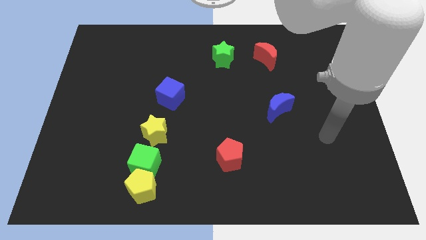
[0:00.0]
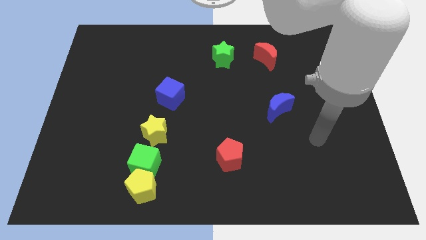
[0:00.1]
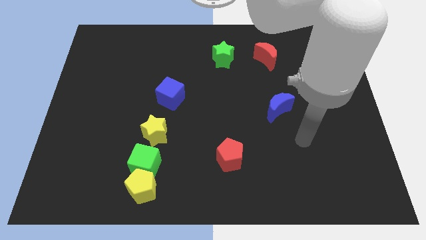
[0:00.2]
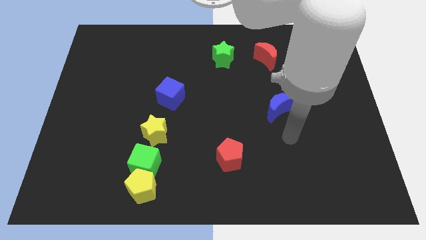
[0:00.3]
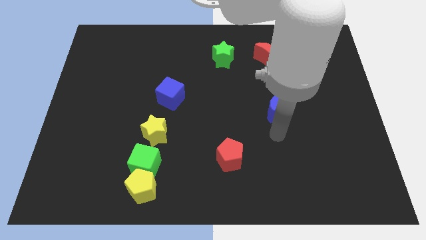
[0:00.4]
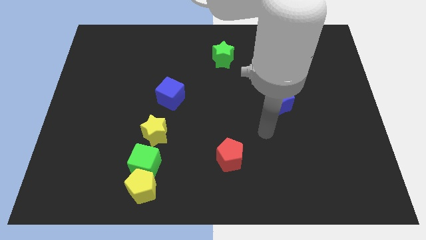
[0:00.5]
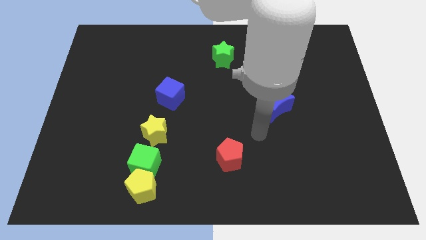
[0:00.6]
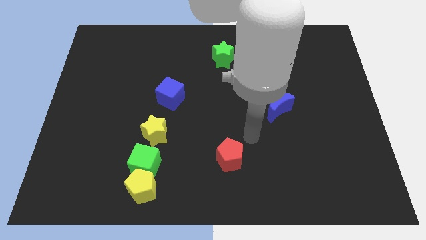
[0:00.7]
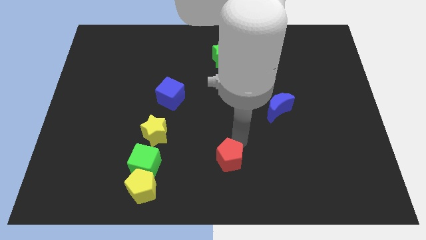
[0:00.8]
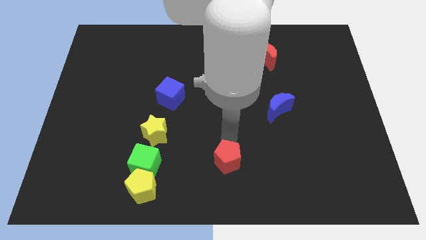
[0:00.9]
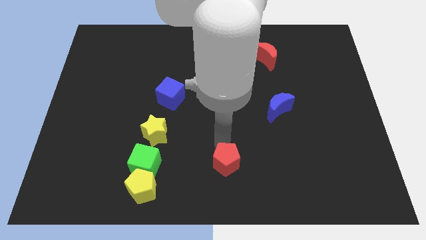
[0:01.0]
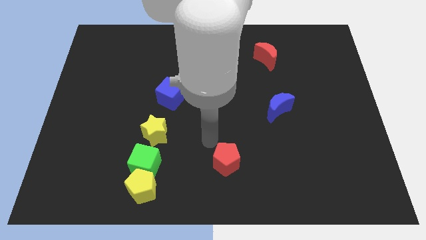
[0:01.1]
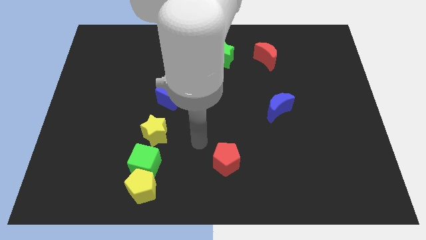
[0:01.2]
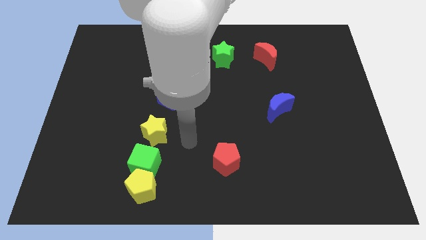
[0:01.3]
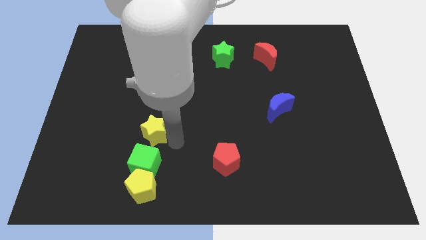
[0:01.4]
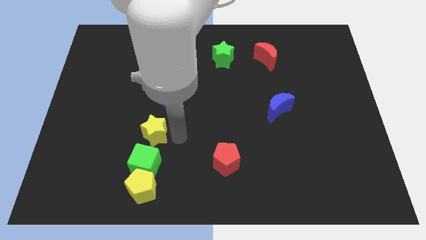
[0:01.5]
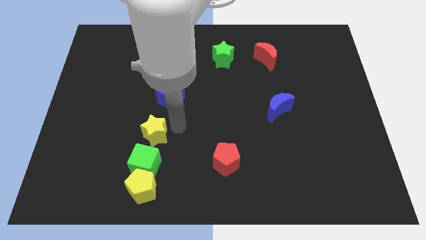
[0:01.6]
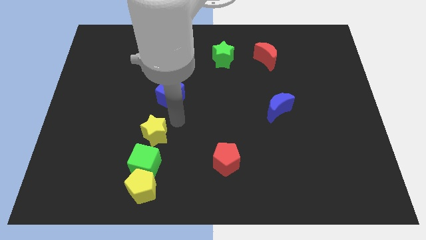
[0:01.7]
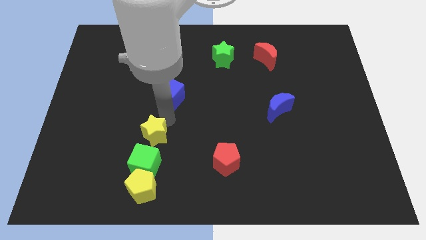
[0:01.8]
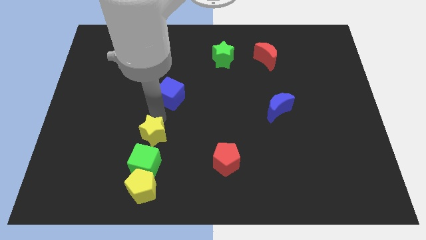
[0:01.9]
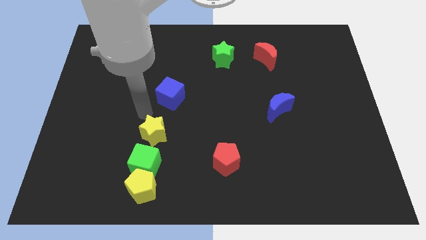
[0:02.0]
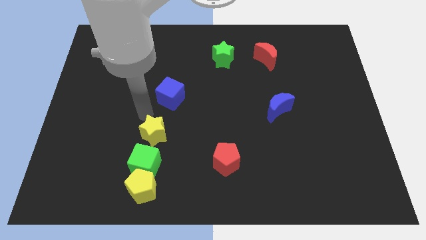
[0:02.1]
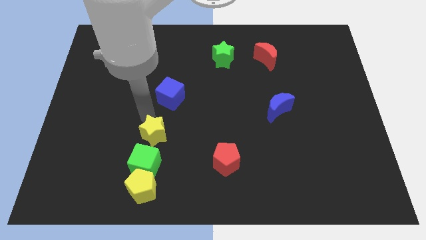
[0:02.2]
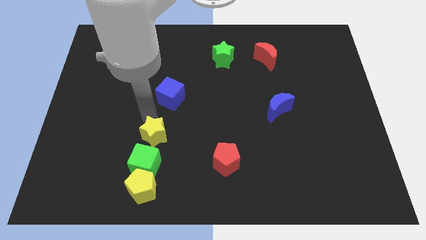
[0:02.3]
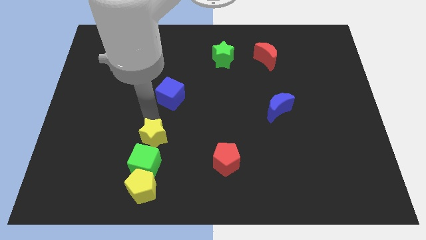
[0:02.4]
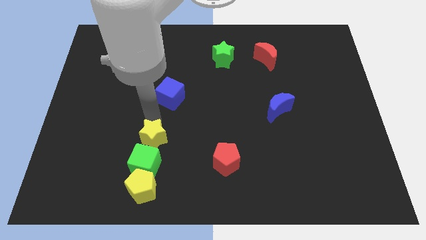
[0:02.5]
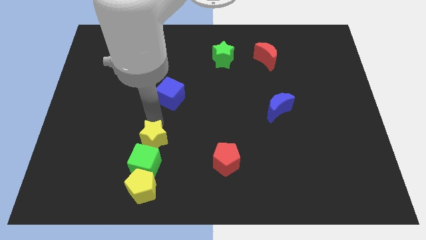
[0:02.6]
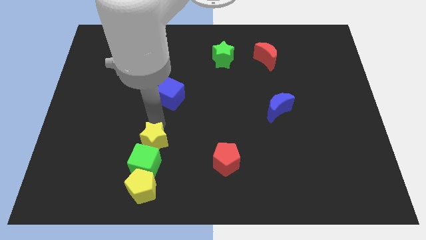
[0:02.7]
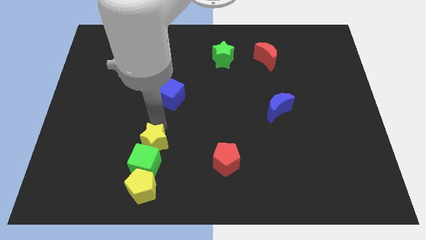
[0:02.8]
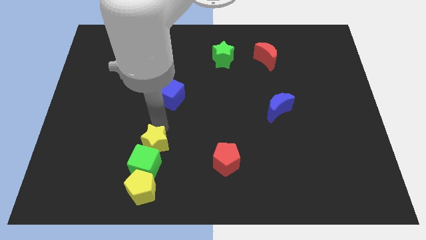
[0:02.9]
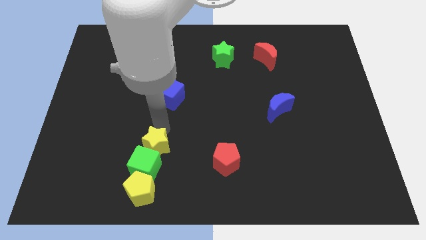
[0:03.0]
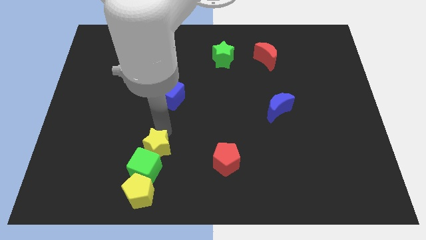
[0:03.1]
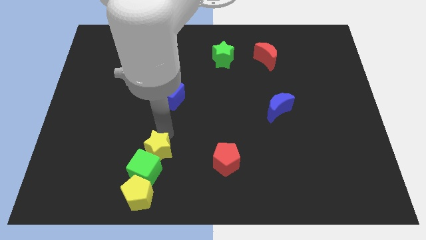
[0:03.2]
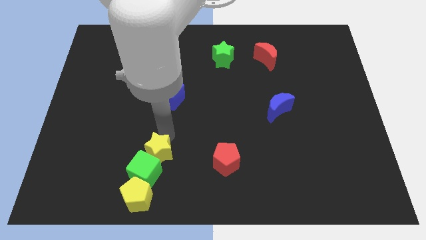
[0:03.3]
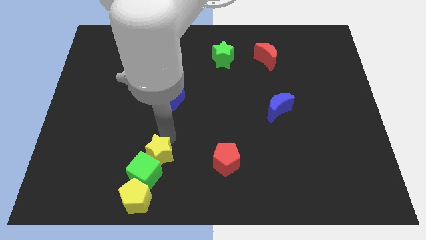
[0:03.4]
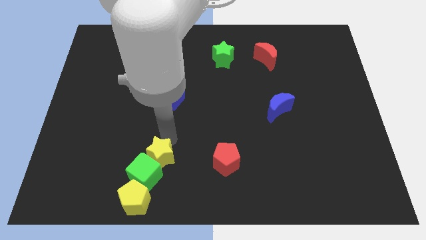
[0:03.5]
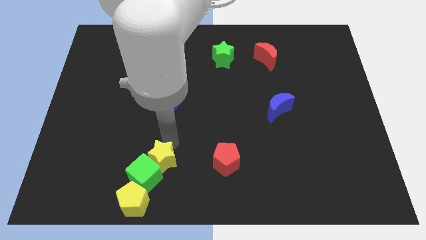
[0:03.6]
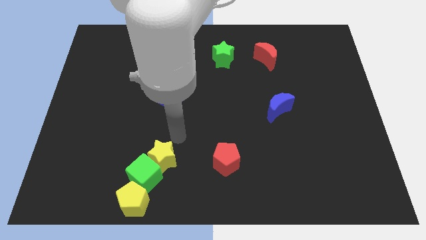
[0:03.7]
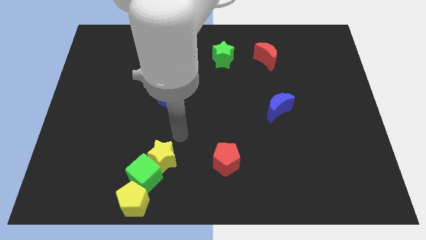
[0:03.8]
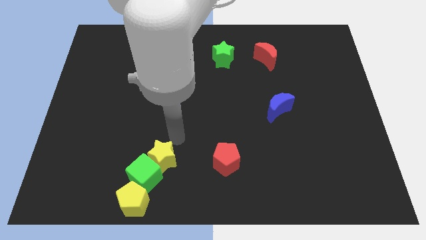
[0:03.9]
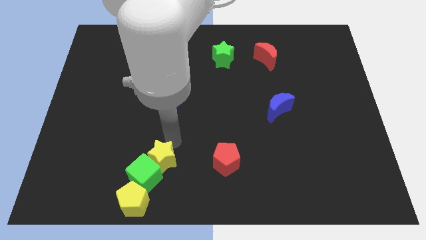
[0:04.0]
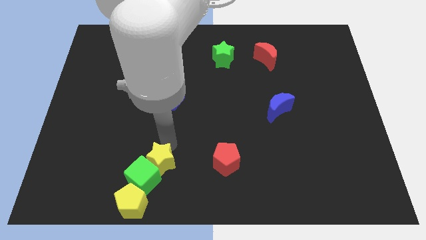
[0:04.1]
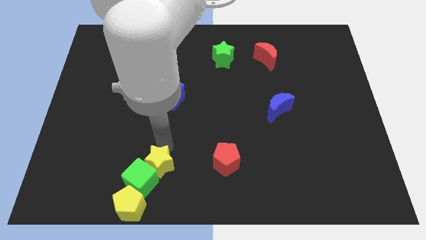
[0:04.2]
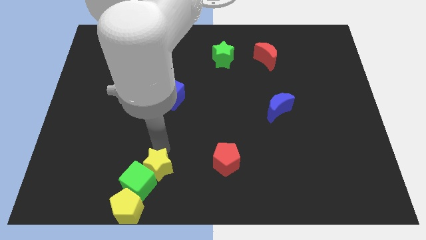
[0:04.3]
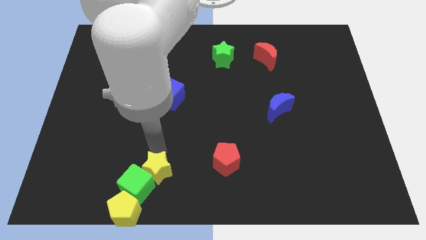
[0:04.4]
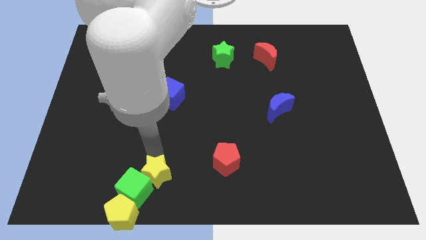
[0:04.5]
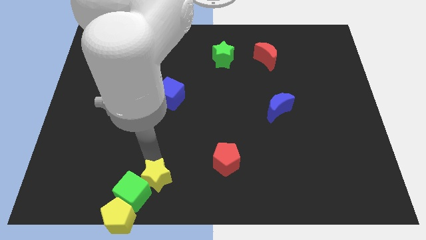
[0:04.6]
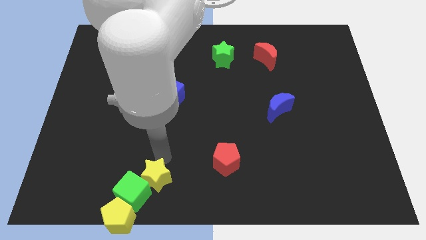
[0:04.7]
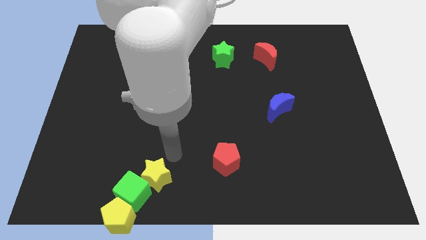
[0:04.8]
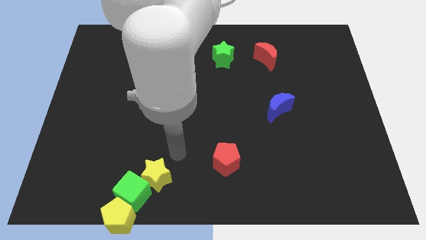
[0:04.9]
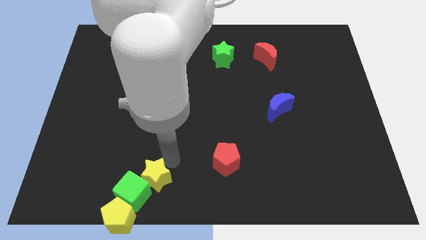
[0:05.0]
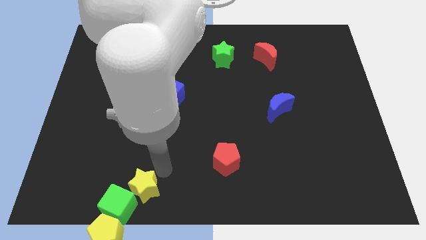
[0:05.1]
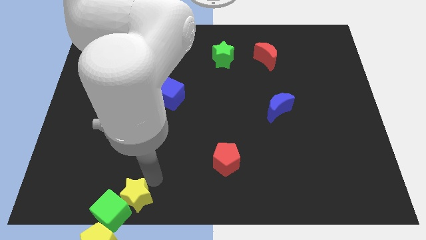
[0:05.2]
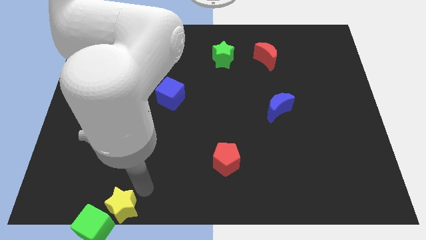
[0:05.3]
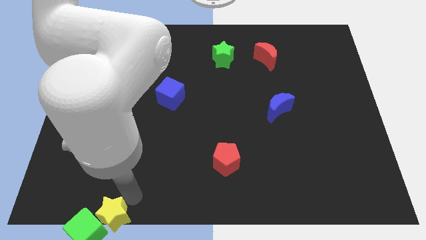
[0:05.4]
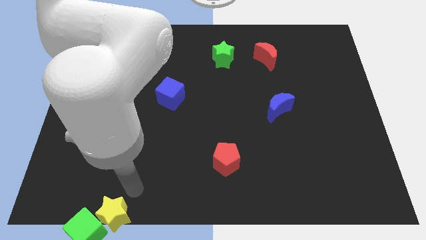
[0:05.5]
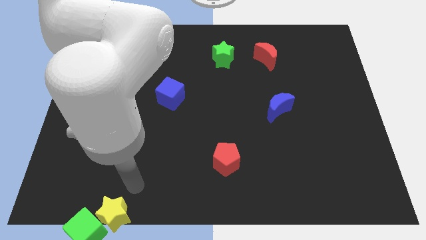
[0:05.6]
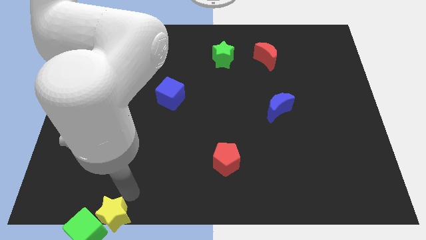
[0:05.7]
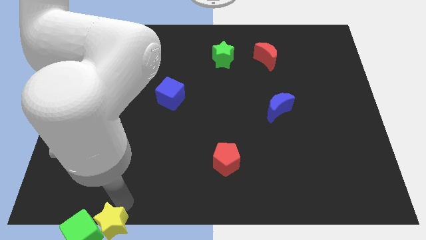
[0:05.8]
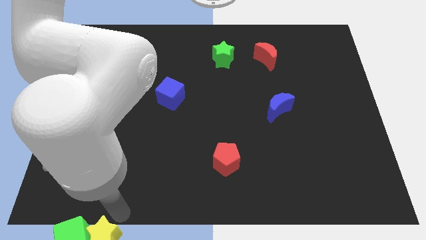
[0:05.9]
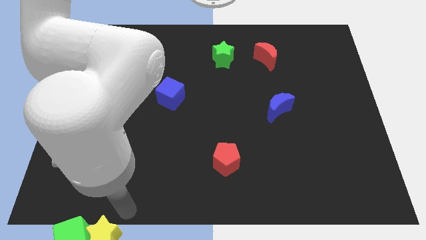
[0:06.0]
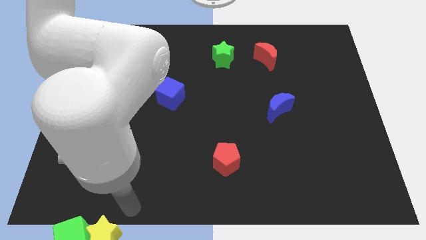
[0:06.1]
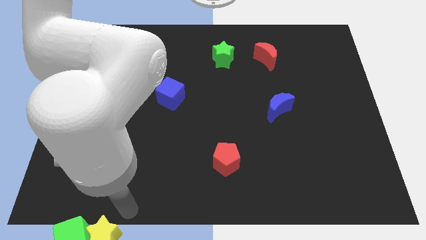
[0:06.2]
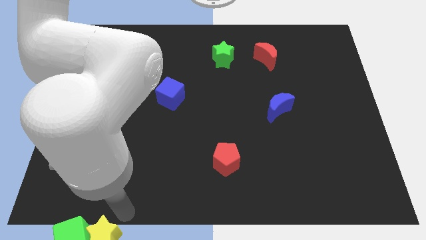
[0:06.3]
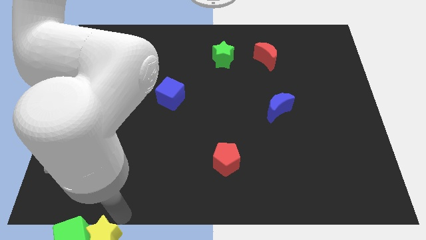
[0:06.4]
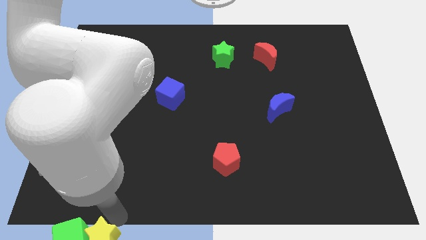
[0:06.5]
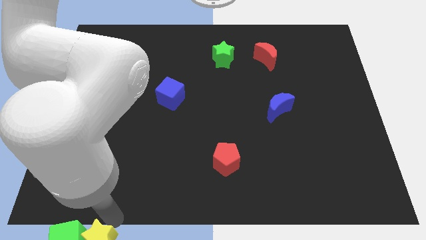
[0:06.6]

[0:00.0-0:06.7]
slide the yellow star next to the yellow pentagon

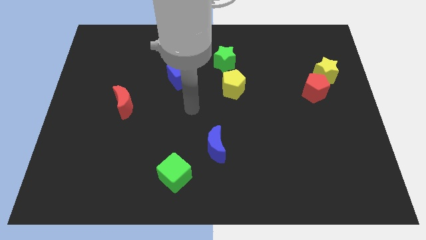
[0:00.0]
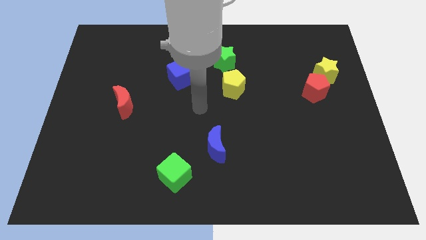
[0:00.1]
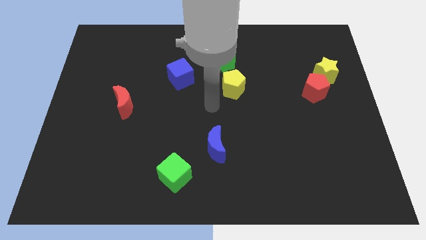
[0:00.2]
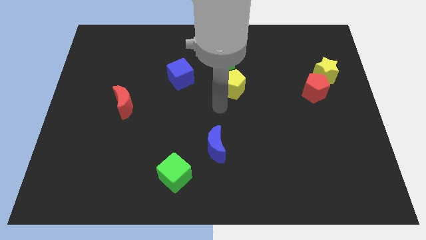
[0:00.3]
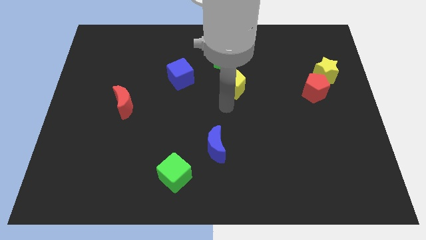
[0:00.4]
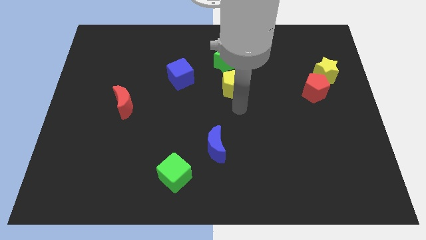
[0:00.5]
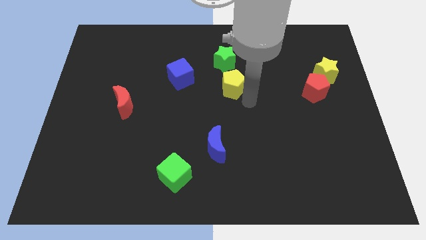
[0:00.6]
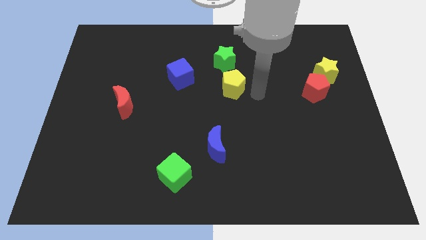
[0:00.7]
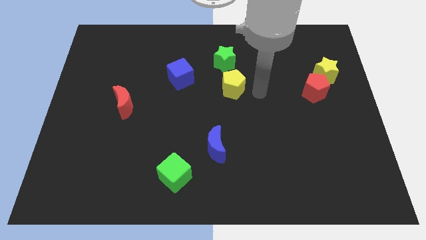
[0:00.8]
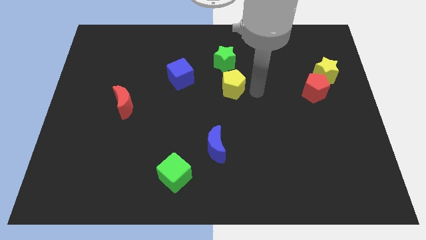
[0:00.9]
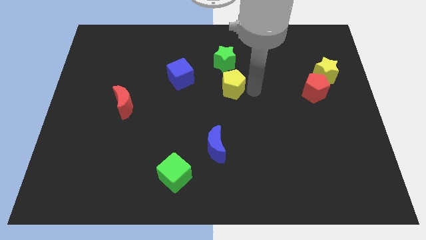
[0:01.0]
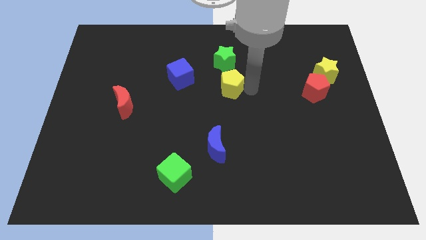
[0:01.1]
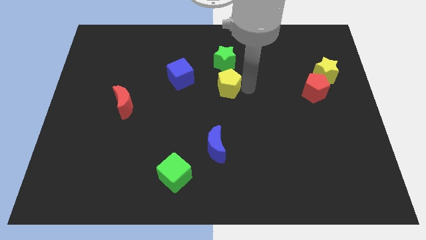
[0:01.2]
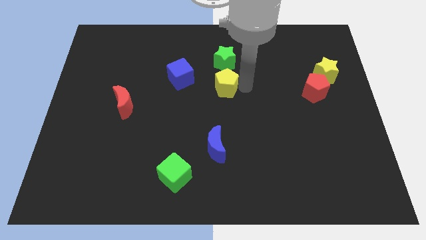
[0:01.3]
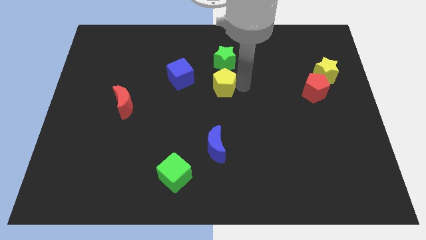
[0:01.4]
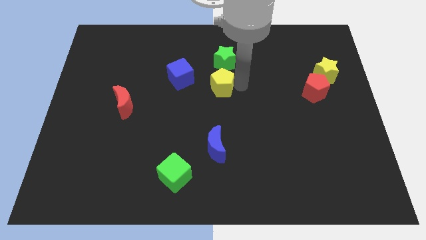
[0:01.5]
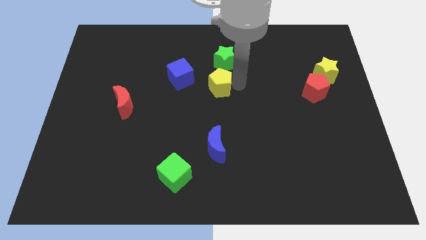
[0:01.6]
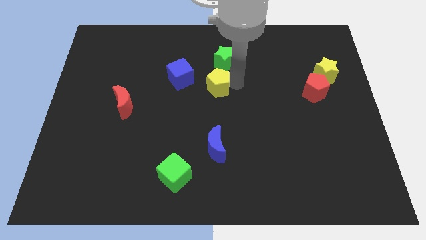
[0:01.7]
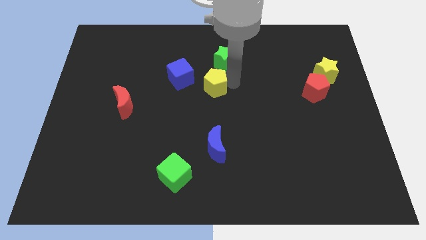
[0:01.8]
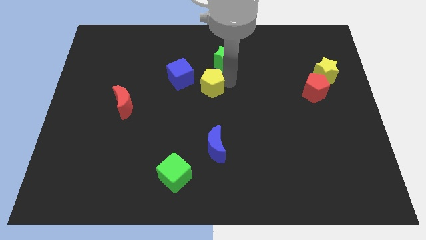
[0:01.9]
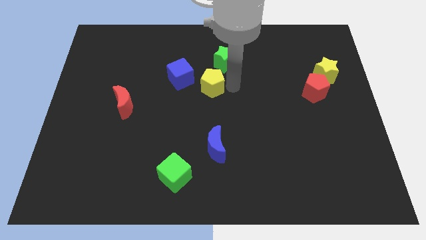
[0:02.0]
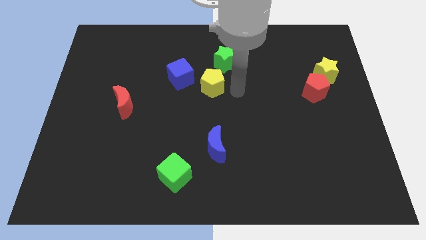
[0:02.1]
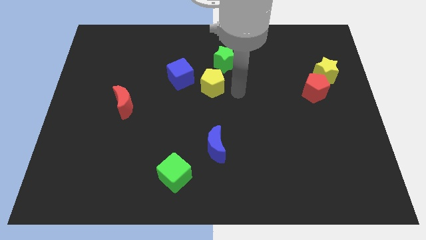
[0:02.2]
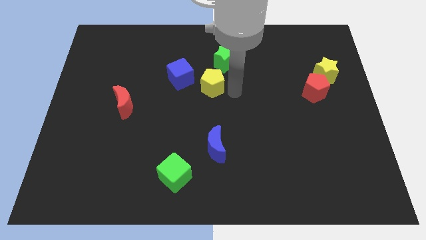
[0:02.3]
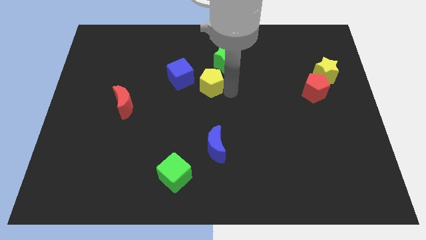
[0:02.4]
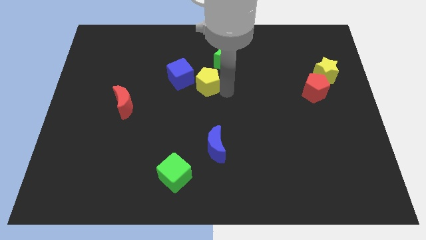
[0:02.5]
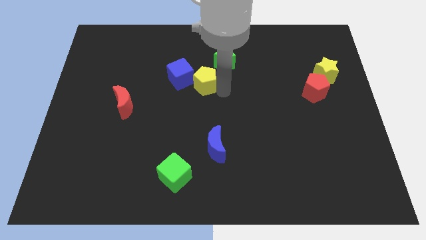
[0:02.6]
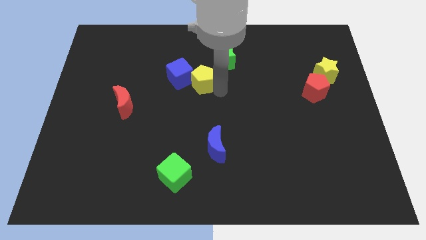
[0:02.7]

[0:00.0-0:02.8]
put the yellow pentagon next to the blue cube
